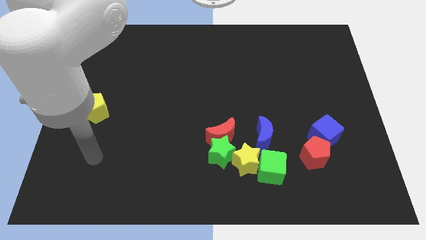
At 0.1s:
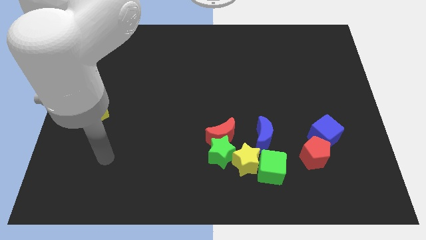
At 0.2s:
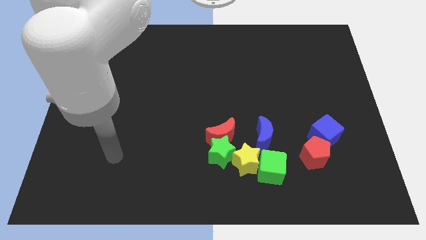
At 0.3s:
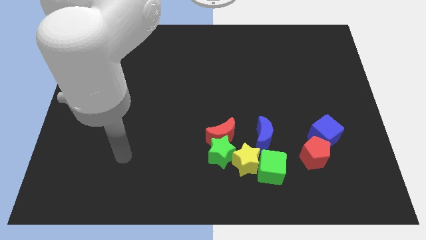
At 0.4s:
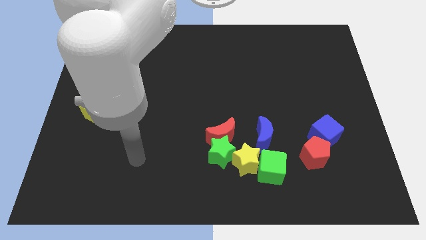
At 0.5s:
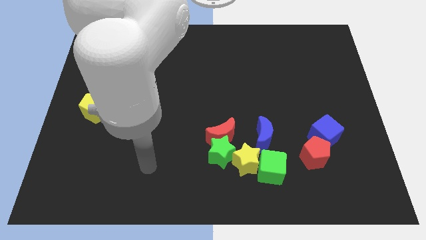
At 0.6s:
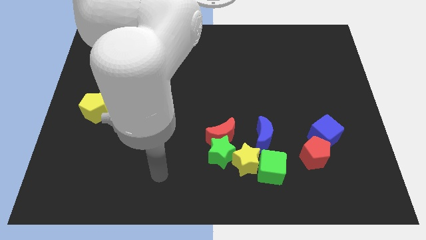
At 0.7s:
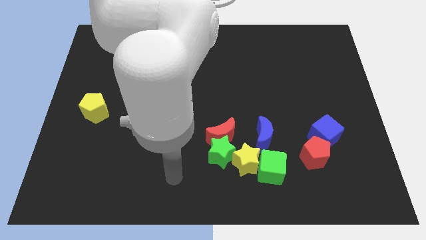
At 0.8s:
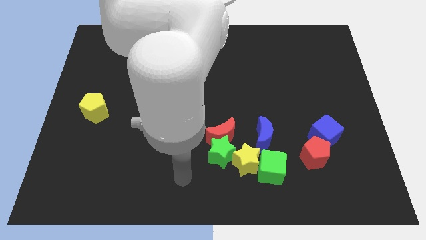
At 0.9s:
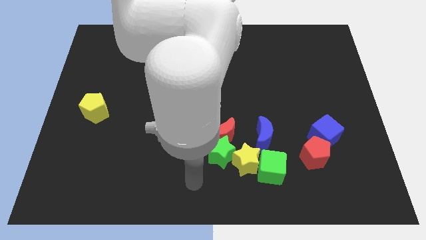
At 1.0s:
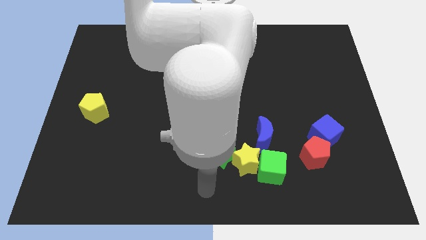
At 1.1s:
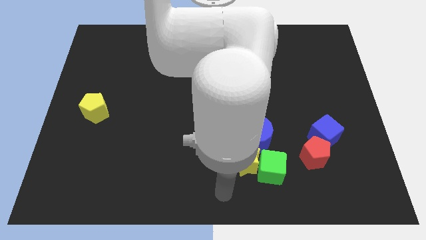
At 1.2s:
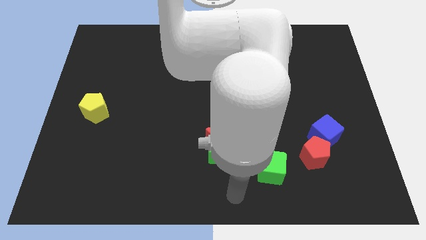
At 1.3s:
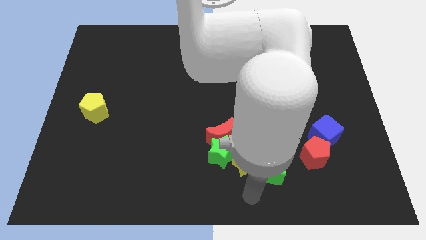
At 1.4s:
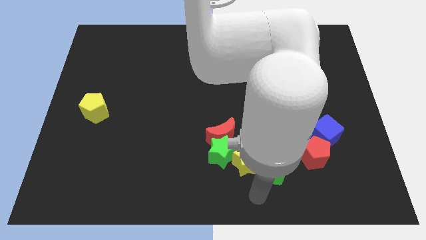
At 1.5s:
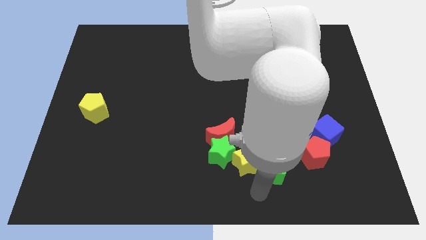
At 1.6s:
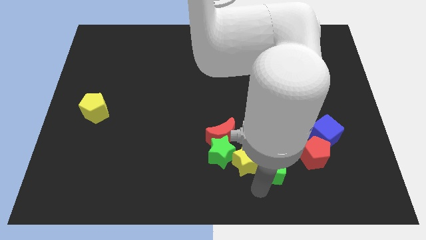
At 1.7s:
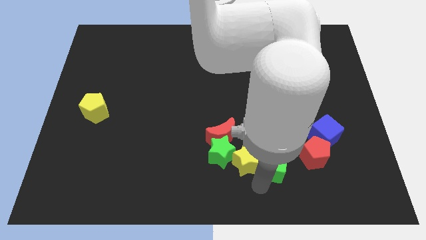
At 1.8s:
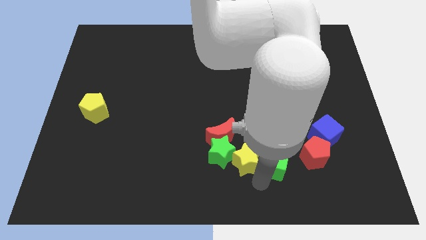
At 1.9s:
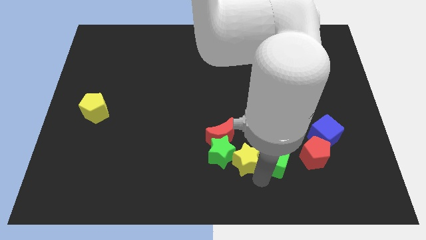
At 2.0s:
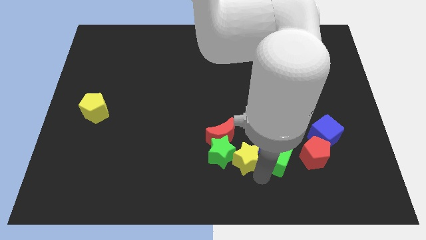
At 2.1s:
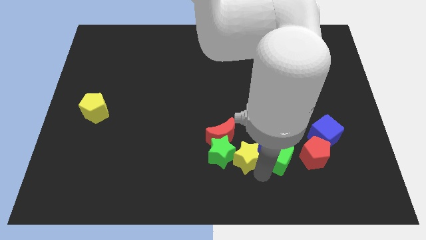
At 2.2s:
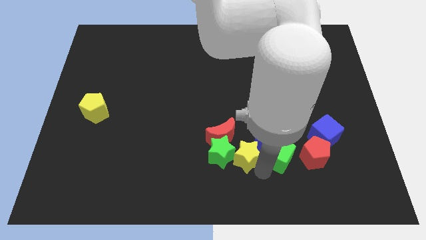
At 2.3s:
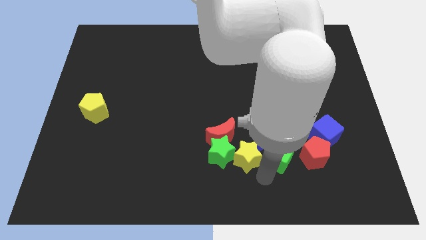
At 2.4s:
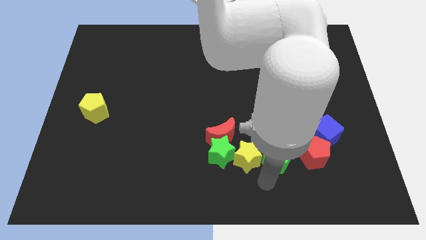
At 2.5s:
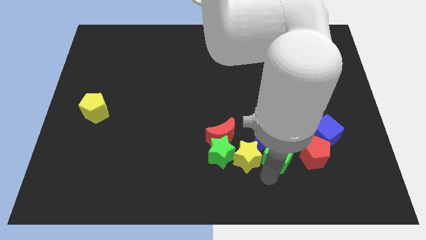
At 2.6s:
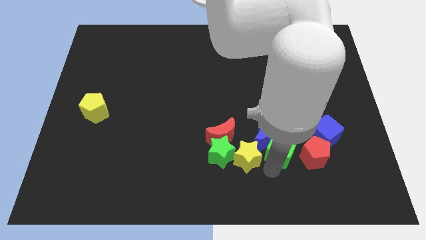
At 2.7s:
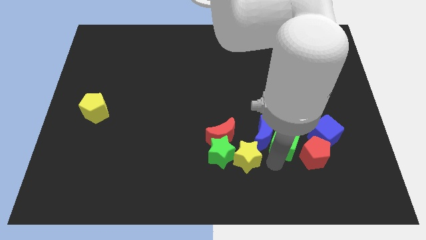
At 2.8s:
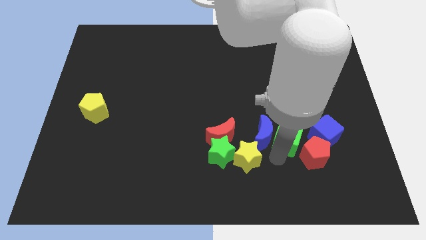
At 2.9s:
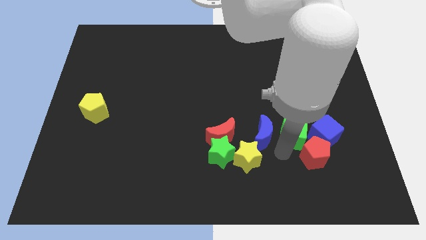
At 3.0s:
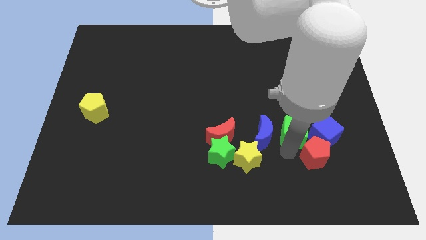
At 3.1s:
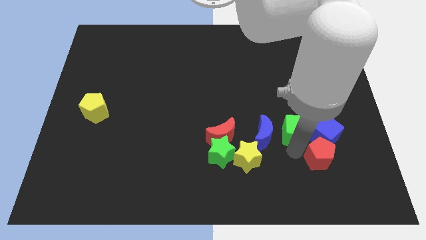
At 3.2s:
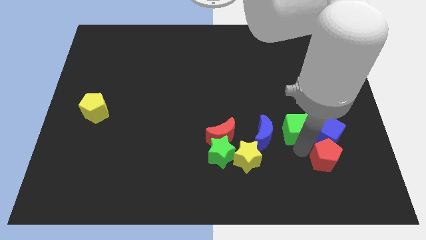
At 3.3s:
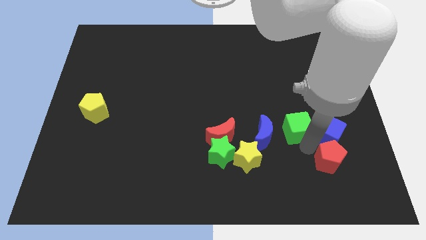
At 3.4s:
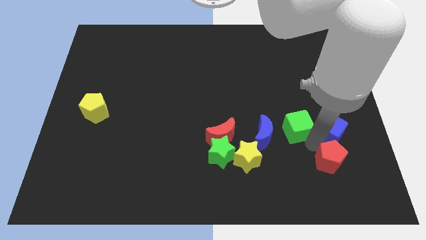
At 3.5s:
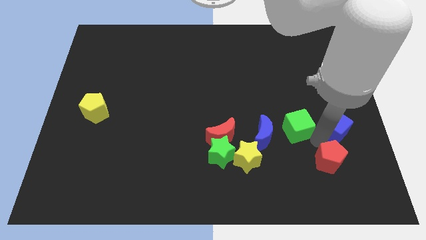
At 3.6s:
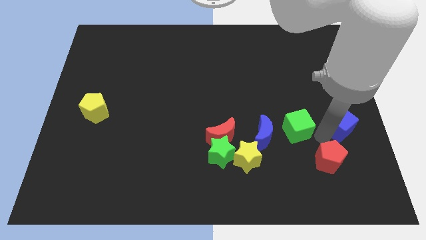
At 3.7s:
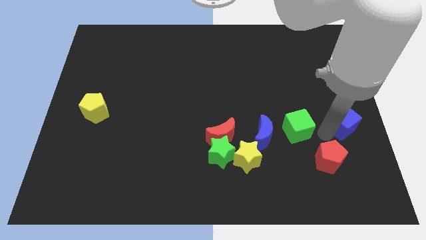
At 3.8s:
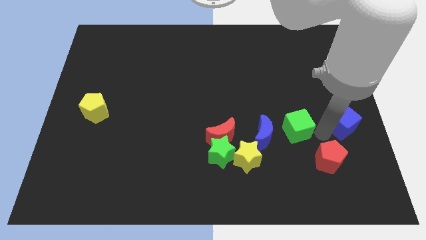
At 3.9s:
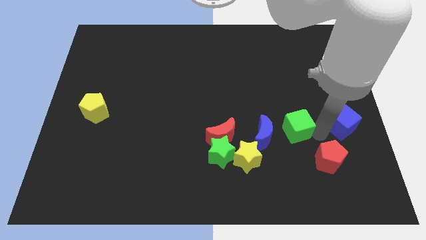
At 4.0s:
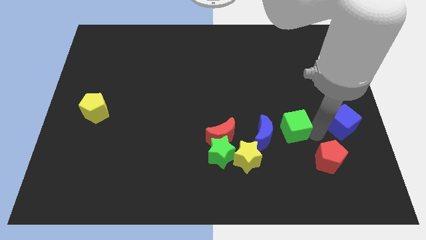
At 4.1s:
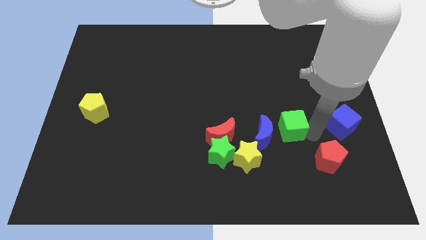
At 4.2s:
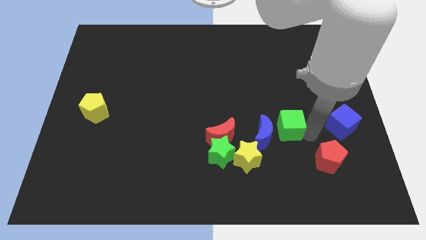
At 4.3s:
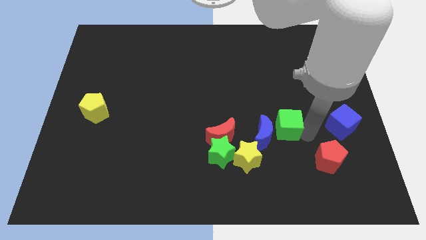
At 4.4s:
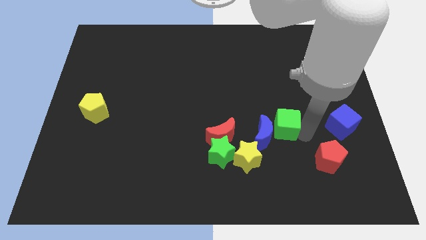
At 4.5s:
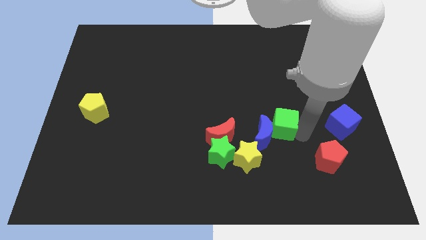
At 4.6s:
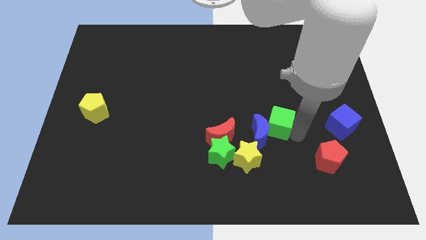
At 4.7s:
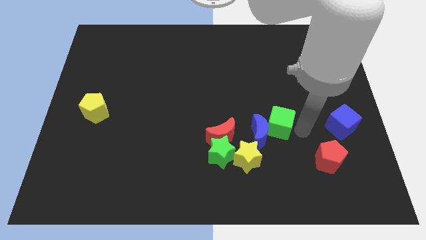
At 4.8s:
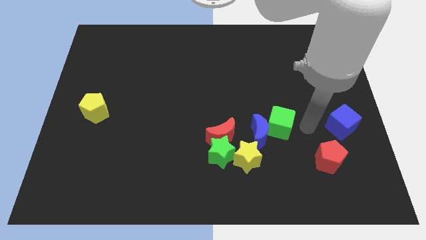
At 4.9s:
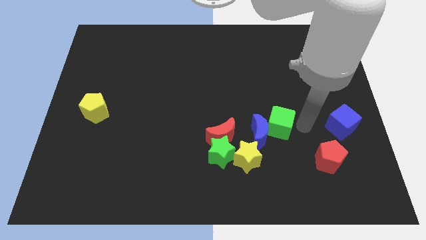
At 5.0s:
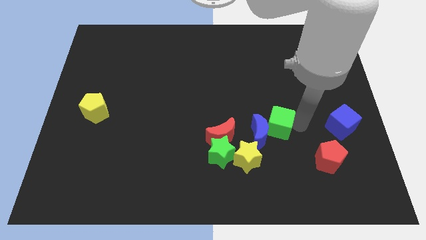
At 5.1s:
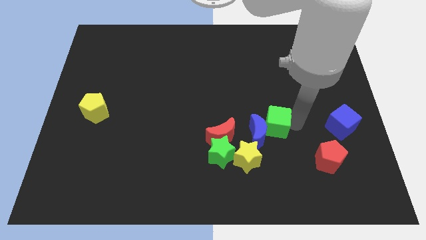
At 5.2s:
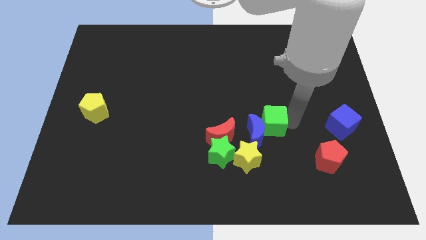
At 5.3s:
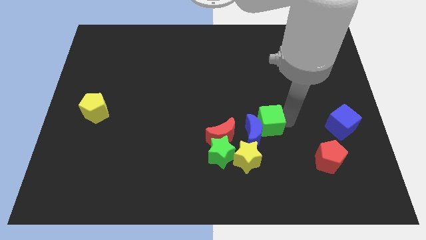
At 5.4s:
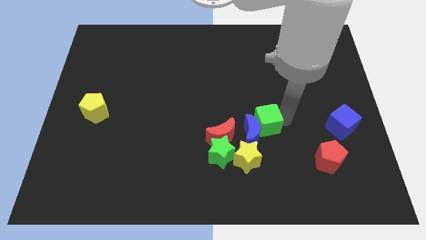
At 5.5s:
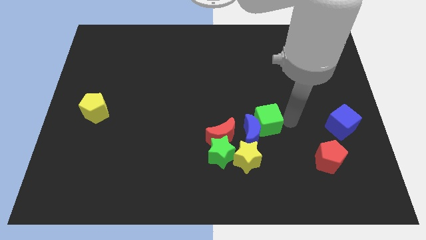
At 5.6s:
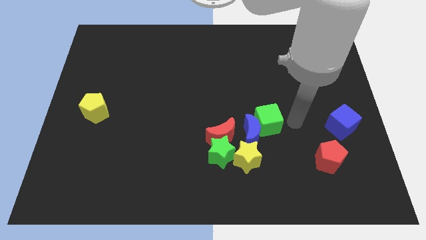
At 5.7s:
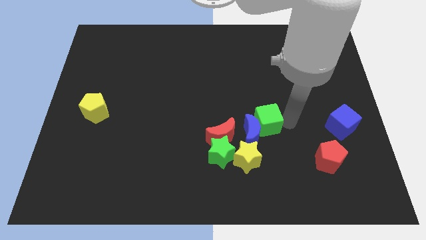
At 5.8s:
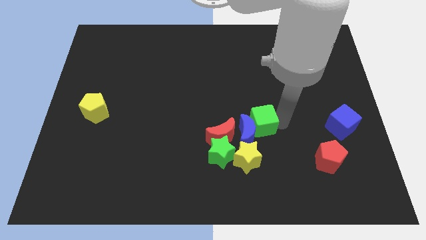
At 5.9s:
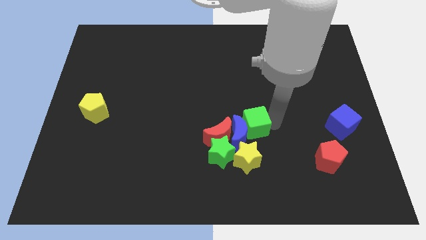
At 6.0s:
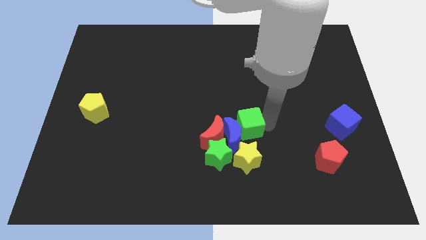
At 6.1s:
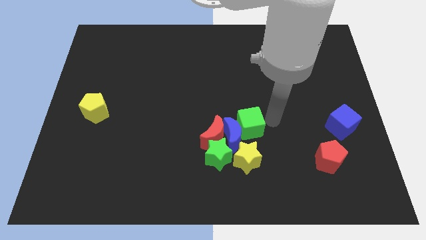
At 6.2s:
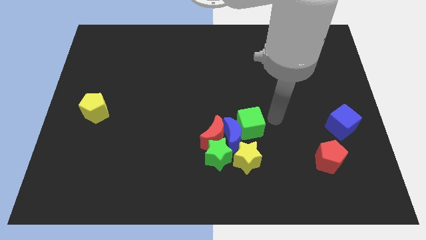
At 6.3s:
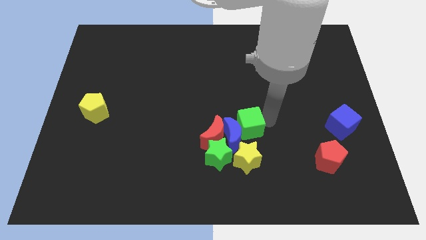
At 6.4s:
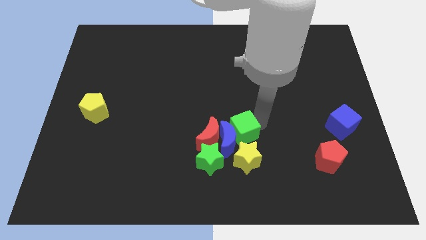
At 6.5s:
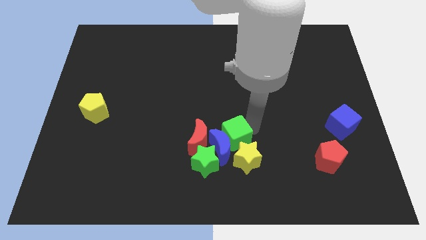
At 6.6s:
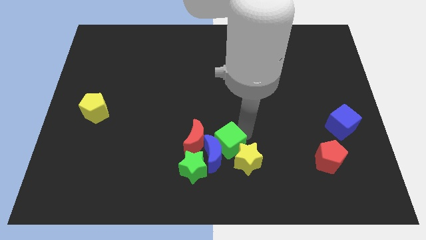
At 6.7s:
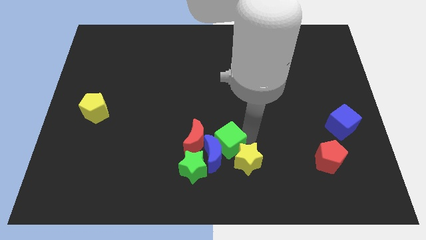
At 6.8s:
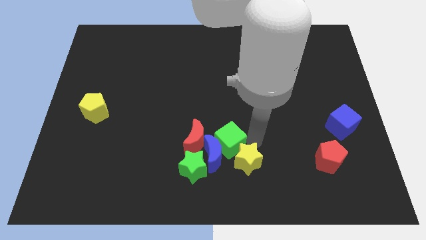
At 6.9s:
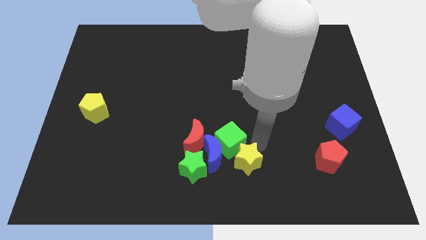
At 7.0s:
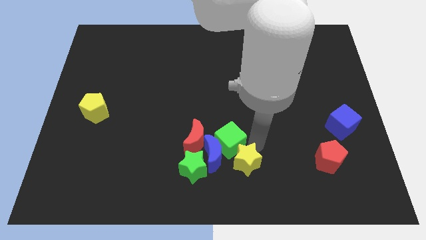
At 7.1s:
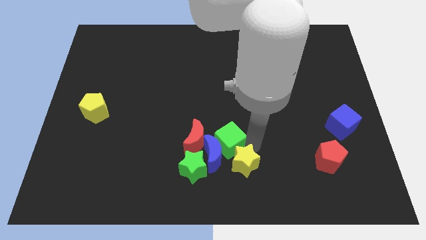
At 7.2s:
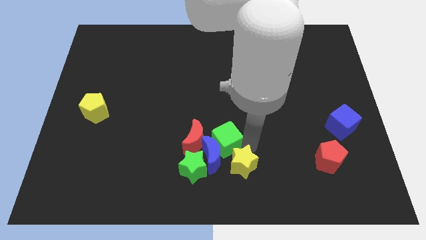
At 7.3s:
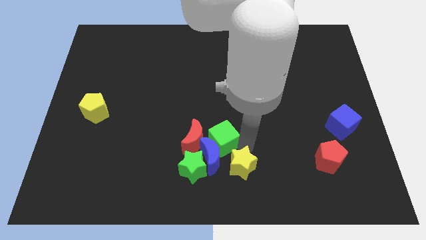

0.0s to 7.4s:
move the green cube close to the red moon
